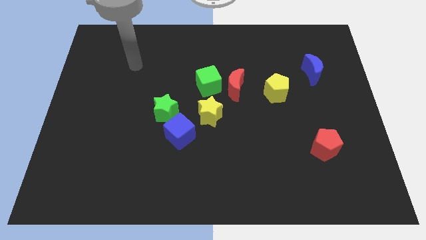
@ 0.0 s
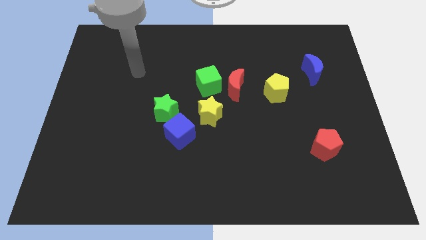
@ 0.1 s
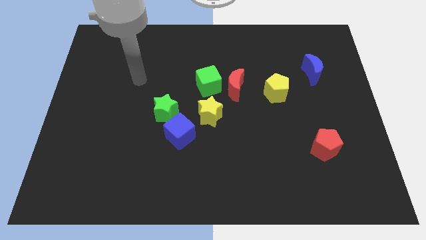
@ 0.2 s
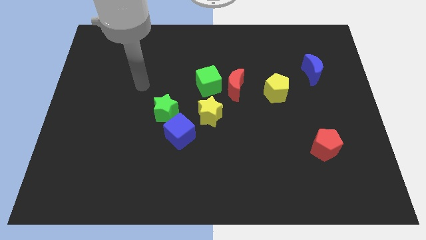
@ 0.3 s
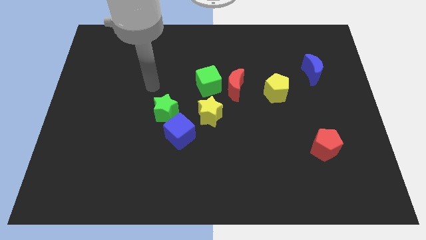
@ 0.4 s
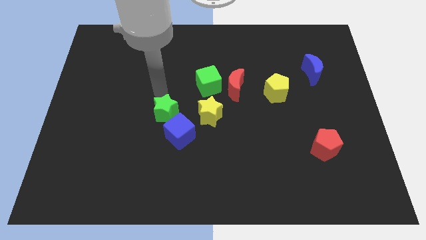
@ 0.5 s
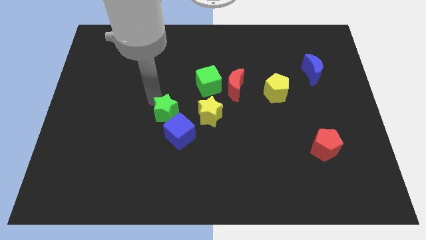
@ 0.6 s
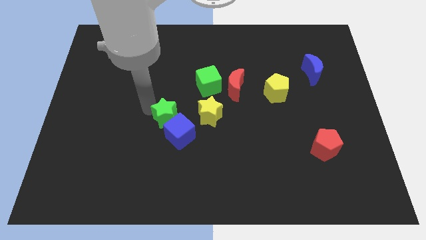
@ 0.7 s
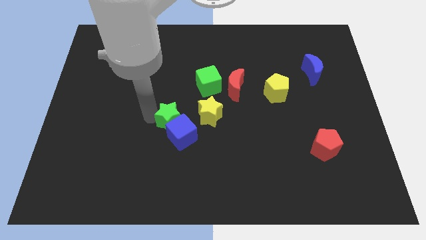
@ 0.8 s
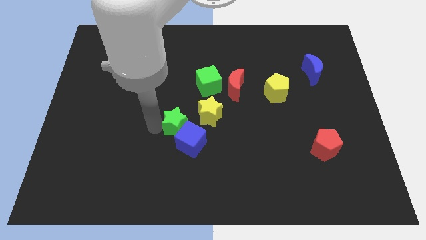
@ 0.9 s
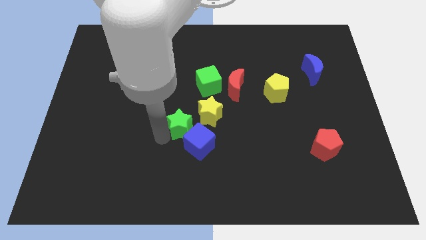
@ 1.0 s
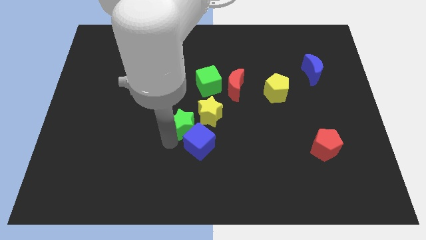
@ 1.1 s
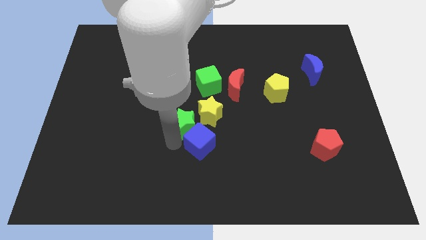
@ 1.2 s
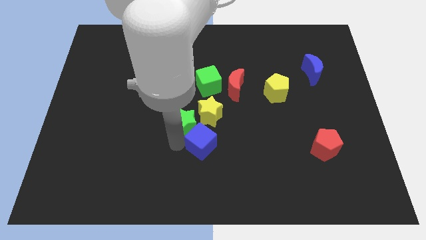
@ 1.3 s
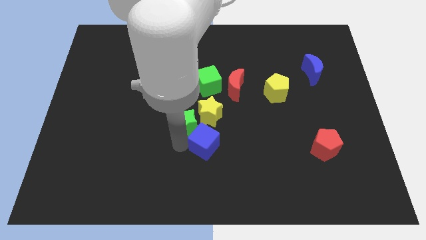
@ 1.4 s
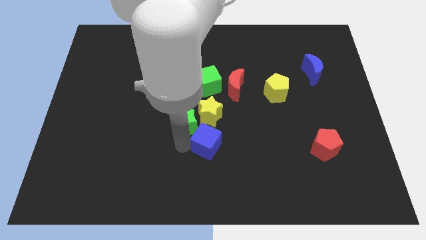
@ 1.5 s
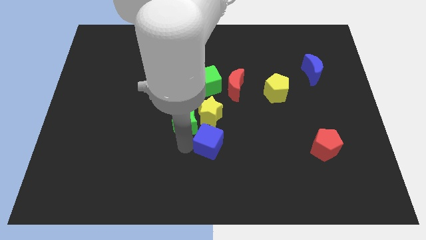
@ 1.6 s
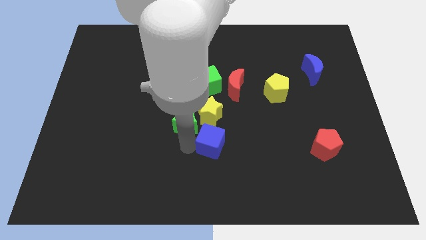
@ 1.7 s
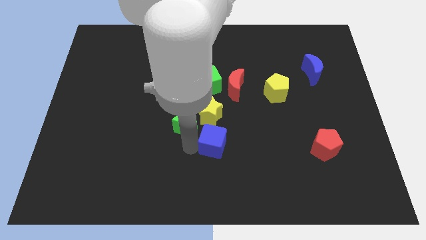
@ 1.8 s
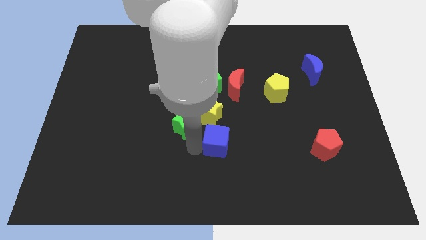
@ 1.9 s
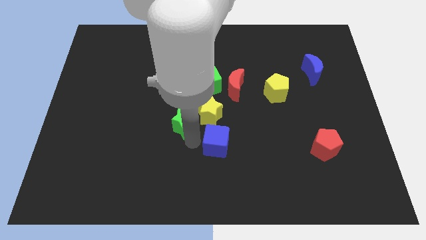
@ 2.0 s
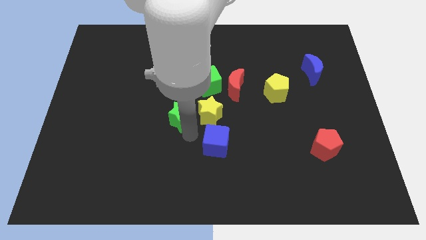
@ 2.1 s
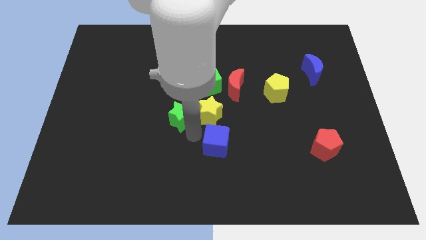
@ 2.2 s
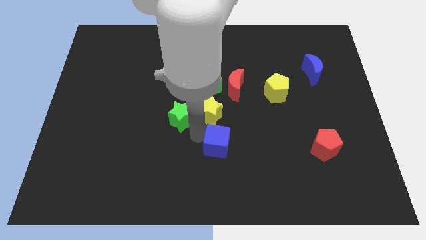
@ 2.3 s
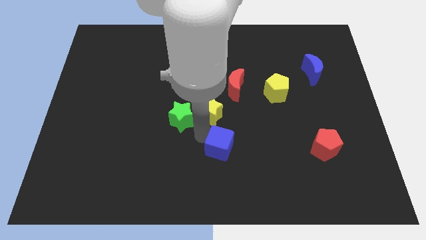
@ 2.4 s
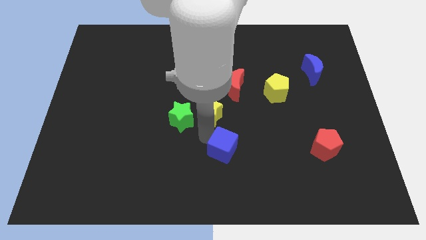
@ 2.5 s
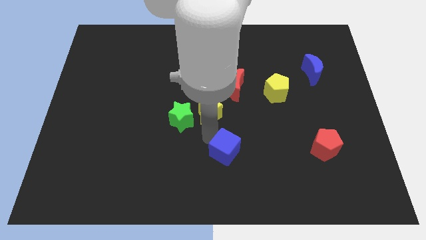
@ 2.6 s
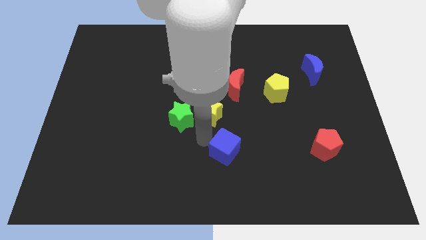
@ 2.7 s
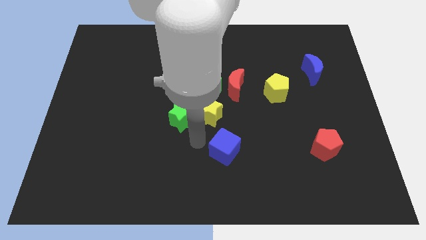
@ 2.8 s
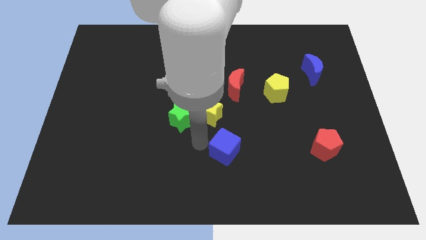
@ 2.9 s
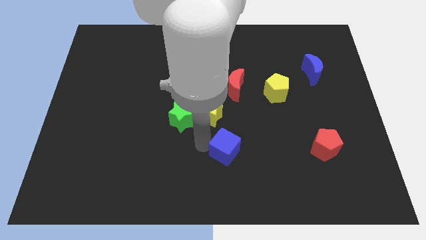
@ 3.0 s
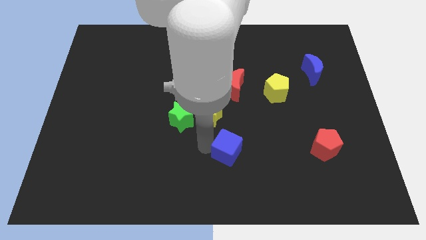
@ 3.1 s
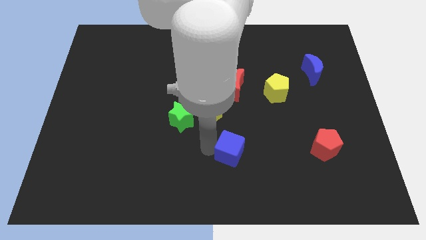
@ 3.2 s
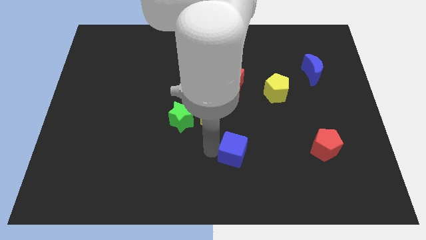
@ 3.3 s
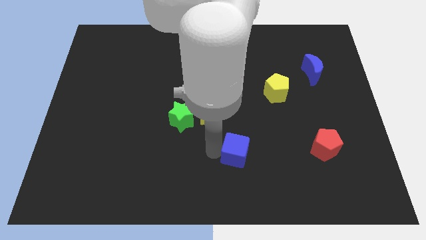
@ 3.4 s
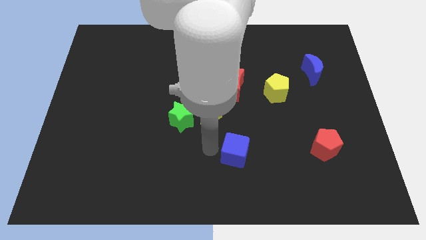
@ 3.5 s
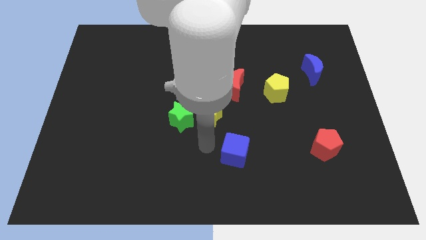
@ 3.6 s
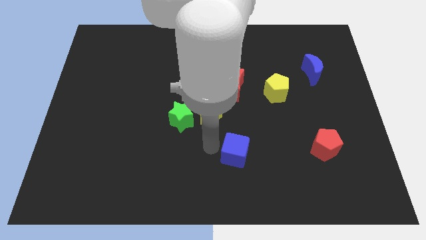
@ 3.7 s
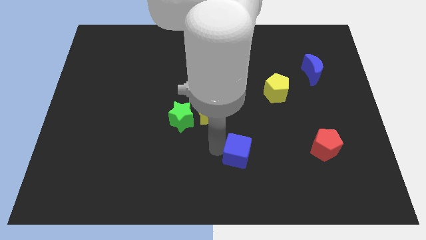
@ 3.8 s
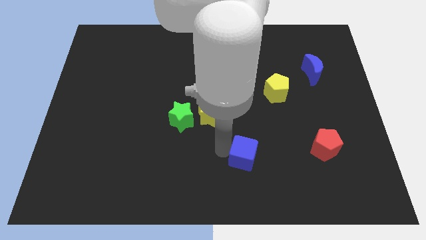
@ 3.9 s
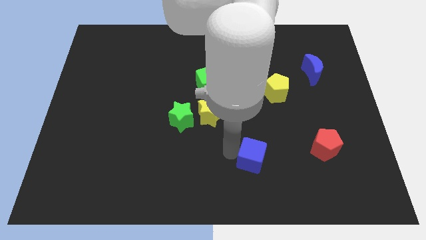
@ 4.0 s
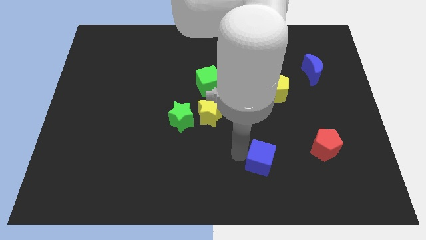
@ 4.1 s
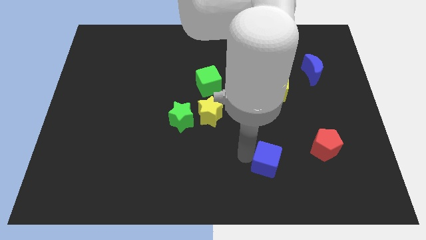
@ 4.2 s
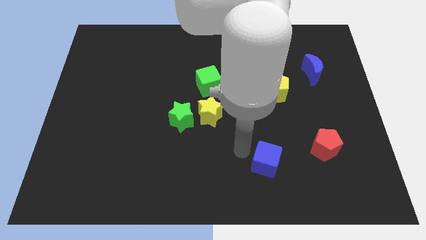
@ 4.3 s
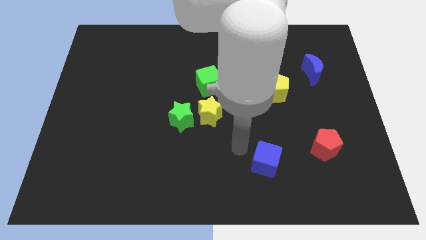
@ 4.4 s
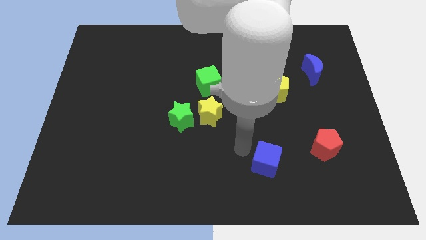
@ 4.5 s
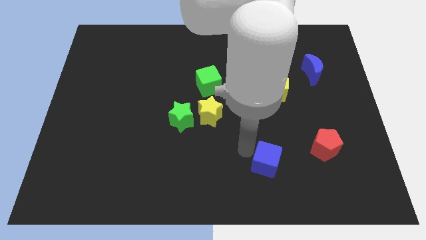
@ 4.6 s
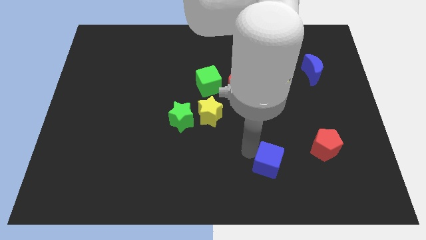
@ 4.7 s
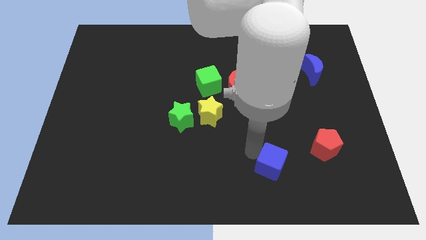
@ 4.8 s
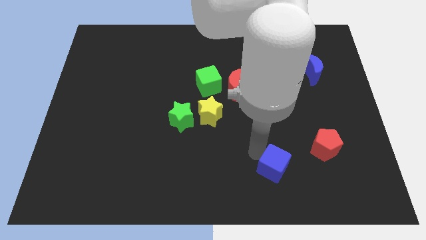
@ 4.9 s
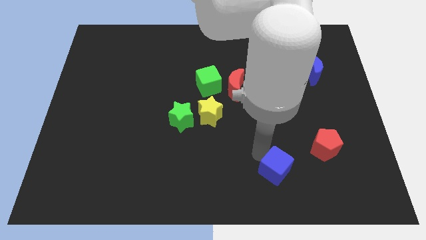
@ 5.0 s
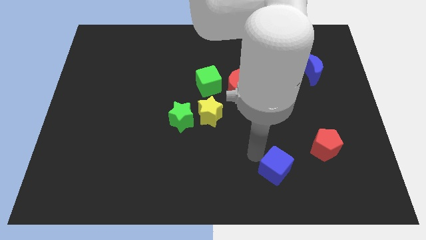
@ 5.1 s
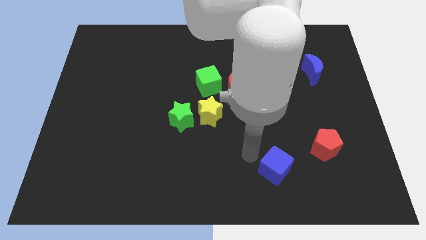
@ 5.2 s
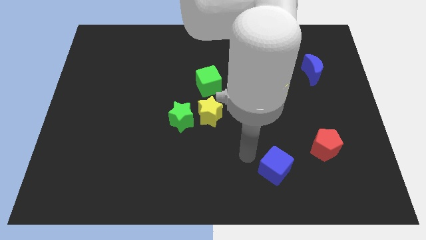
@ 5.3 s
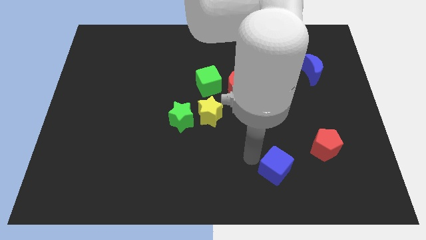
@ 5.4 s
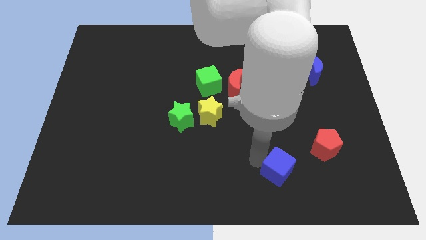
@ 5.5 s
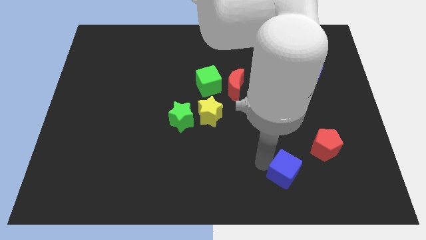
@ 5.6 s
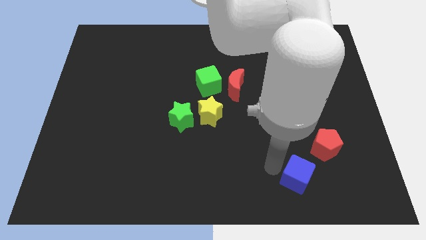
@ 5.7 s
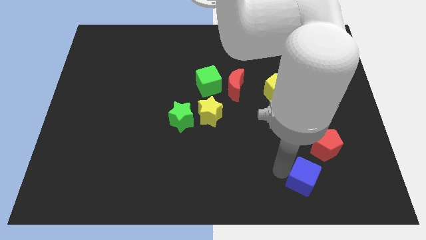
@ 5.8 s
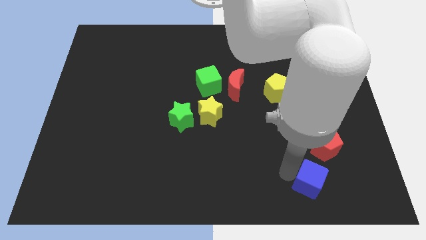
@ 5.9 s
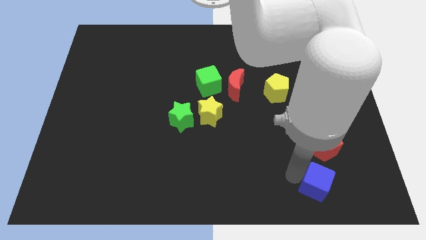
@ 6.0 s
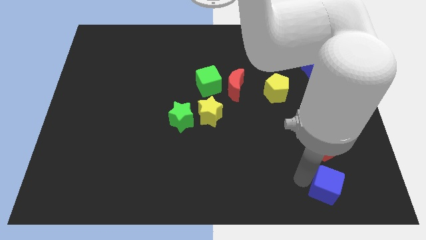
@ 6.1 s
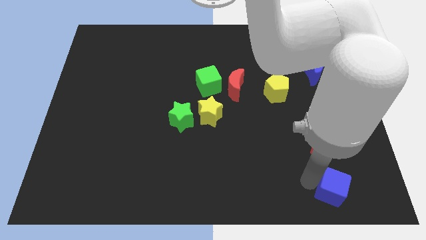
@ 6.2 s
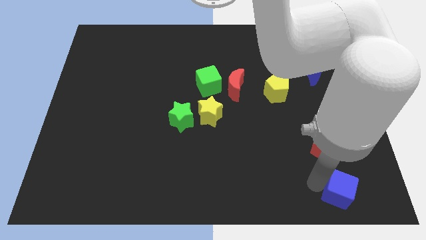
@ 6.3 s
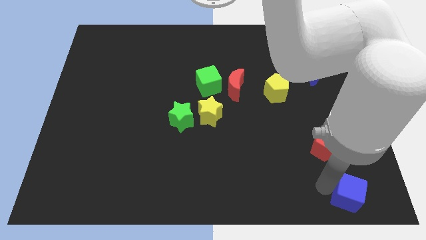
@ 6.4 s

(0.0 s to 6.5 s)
put the blue cube to the bottom right

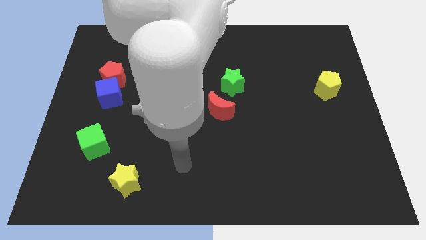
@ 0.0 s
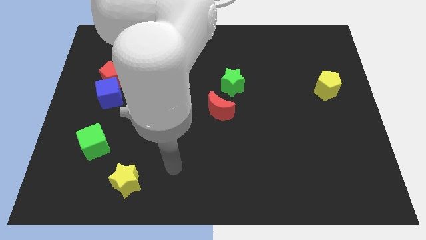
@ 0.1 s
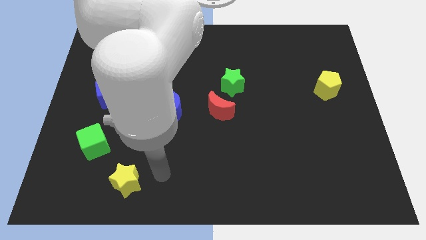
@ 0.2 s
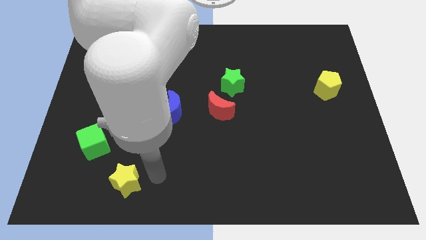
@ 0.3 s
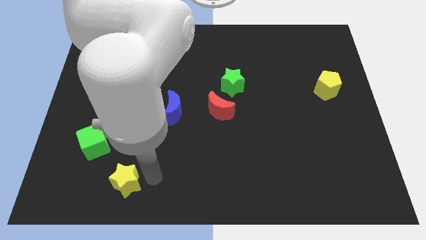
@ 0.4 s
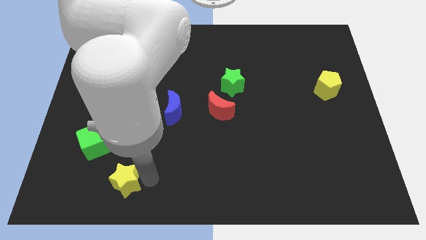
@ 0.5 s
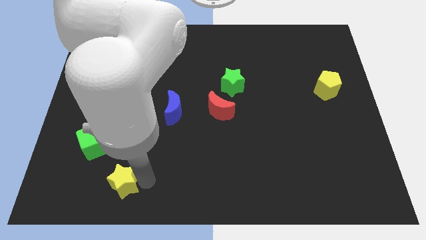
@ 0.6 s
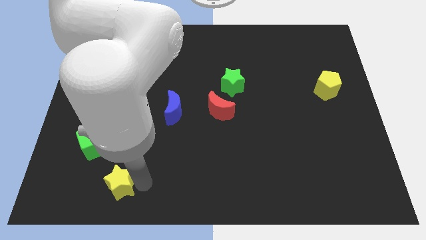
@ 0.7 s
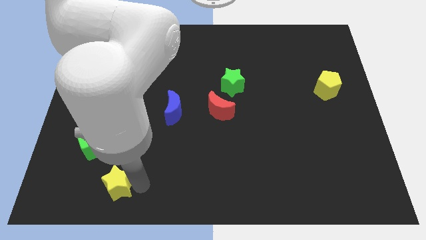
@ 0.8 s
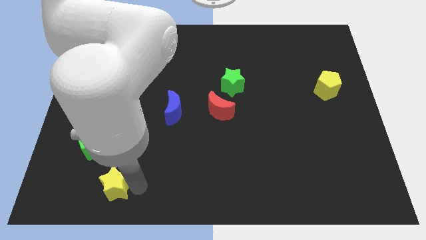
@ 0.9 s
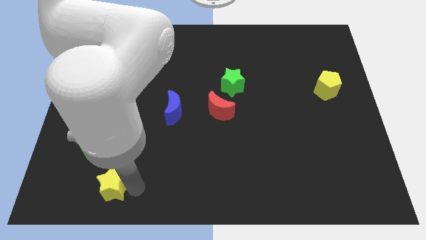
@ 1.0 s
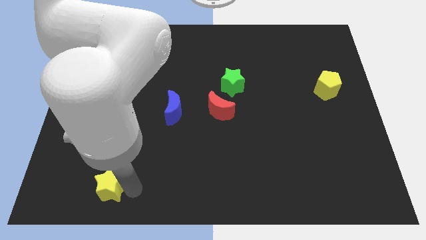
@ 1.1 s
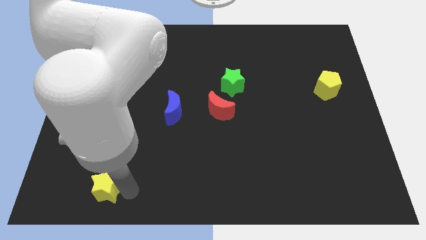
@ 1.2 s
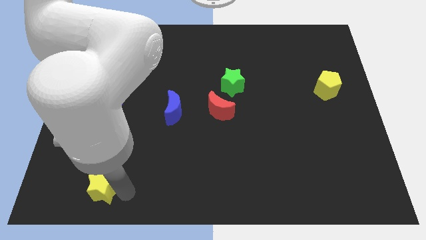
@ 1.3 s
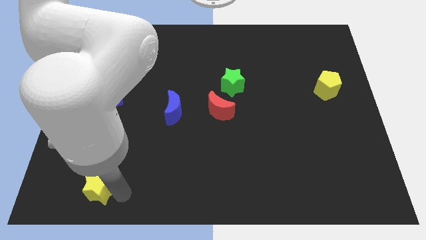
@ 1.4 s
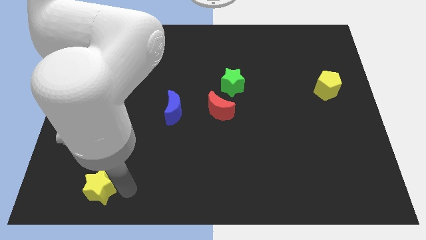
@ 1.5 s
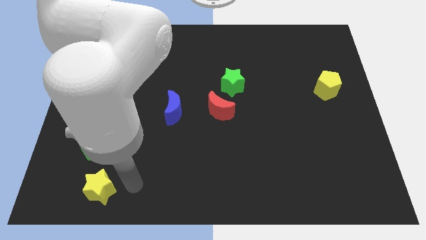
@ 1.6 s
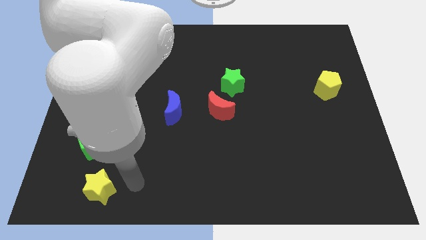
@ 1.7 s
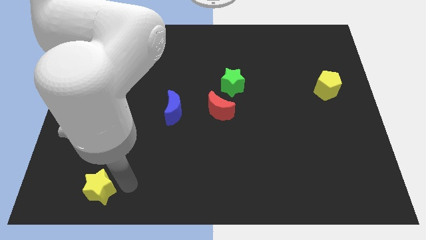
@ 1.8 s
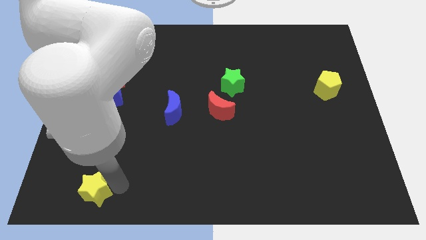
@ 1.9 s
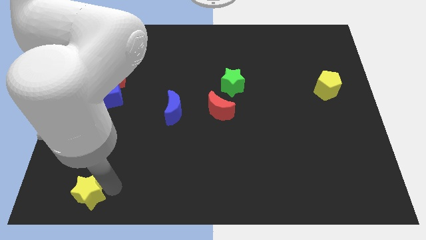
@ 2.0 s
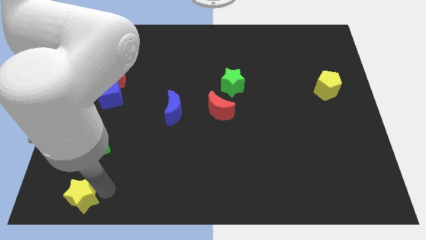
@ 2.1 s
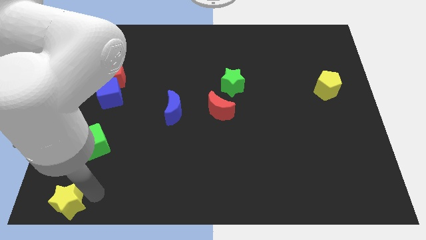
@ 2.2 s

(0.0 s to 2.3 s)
slide the yellow star to the bottom left
